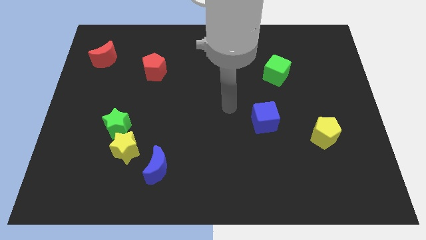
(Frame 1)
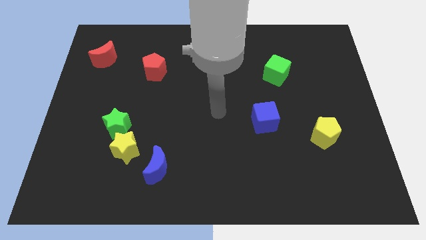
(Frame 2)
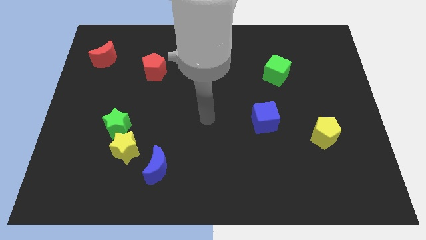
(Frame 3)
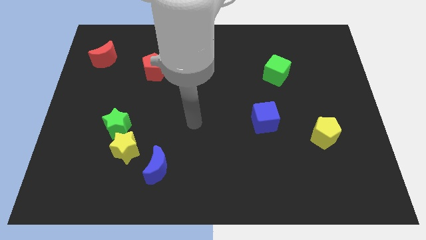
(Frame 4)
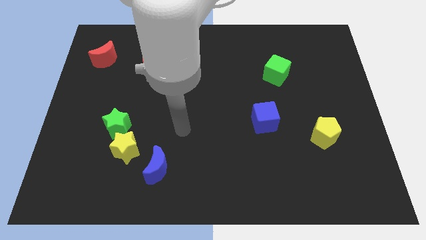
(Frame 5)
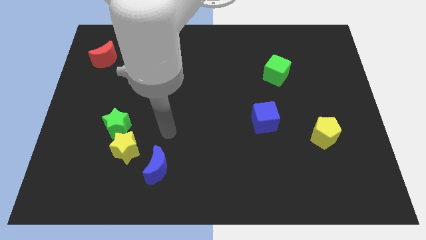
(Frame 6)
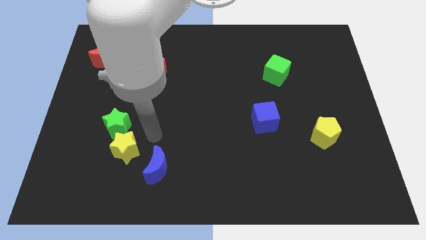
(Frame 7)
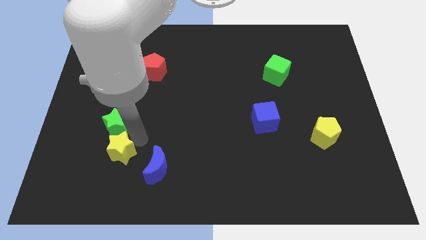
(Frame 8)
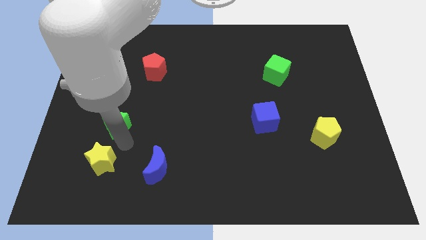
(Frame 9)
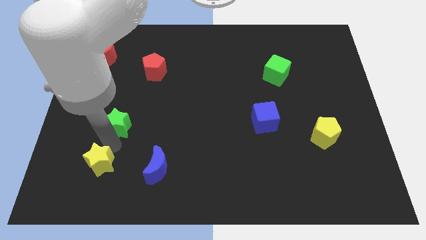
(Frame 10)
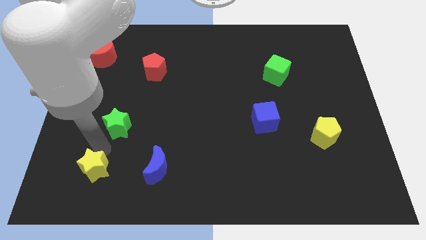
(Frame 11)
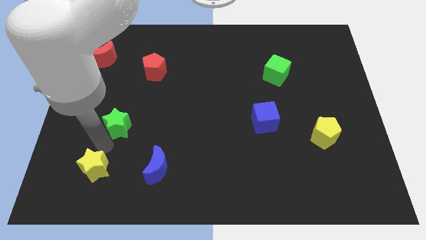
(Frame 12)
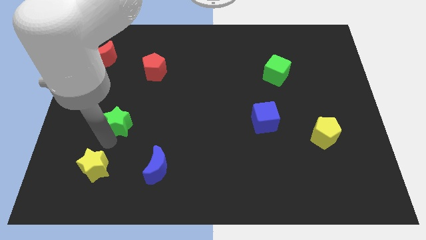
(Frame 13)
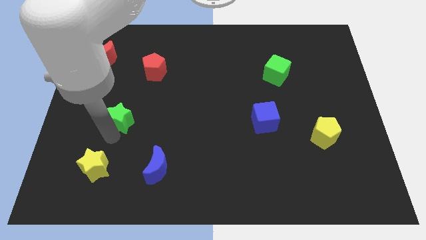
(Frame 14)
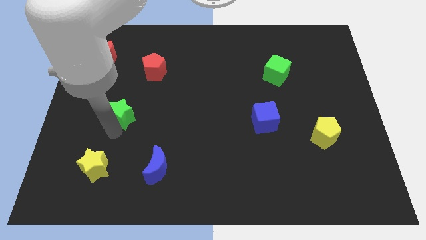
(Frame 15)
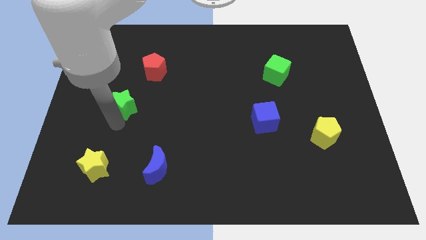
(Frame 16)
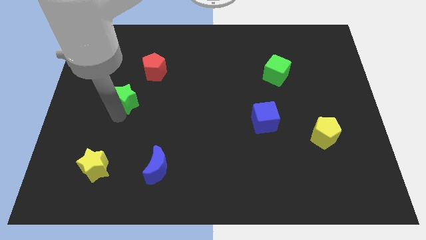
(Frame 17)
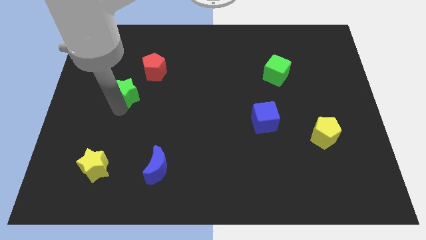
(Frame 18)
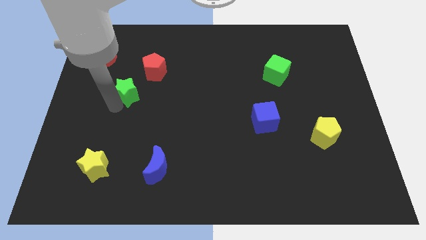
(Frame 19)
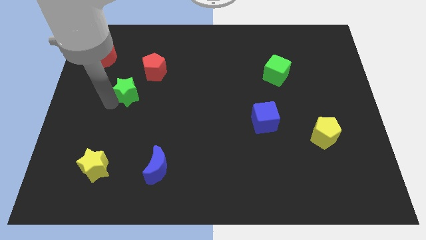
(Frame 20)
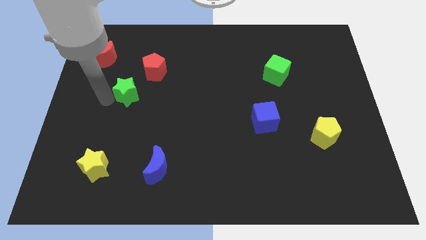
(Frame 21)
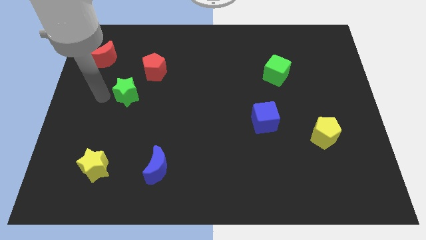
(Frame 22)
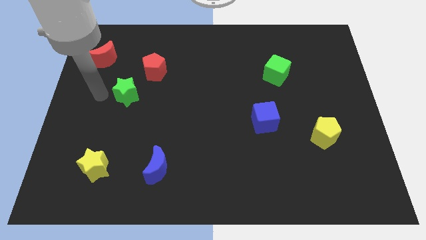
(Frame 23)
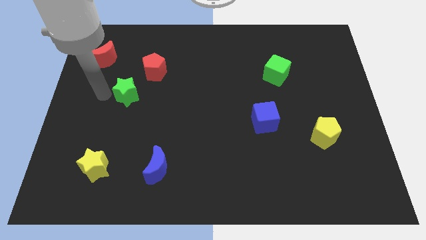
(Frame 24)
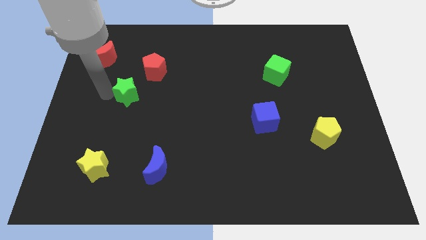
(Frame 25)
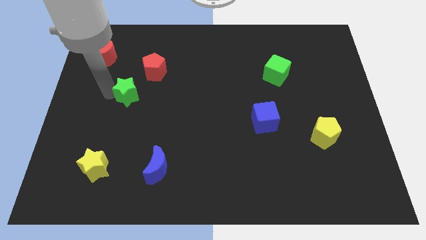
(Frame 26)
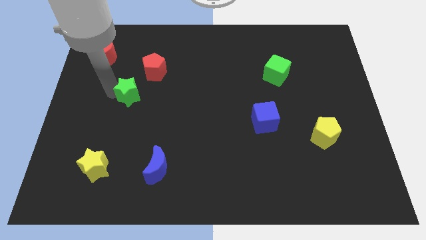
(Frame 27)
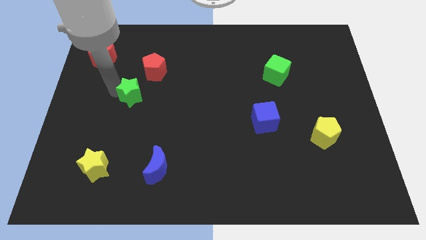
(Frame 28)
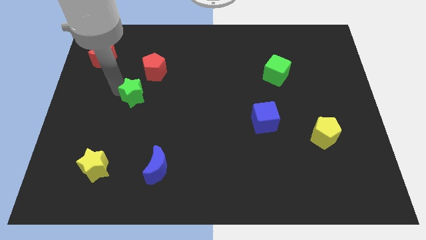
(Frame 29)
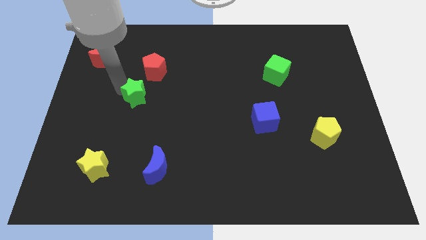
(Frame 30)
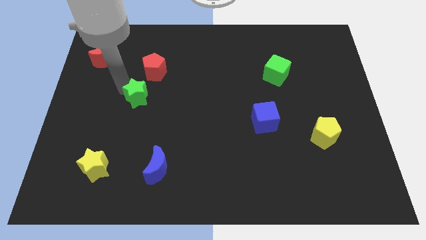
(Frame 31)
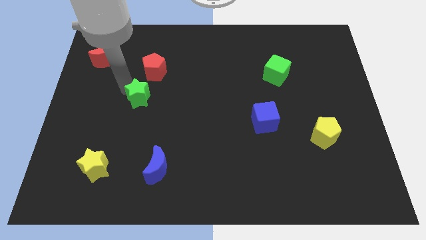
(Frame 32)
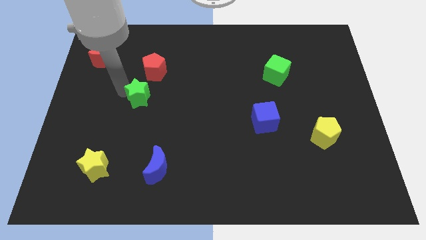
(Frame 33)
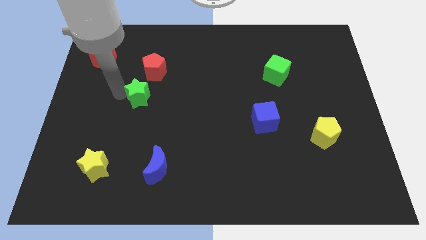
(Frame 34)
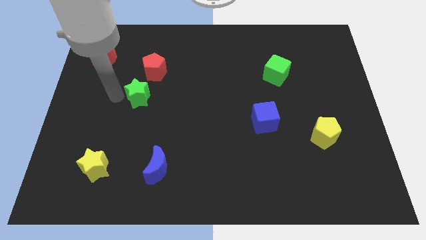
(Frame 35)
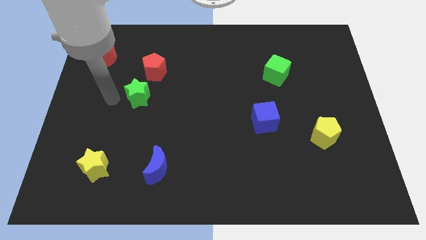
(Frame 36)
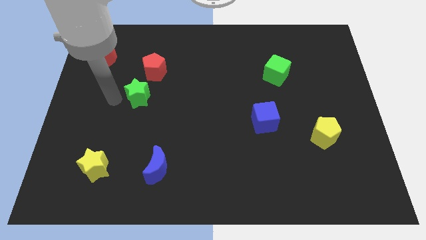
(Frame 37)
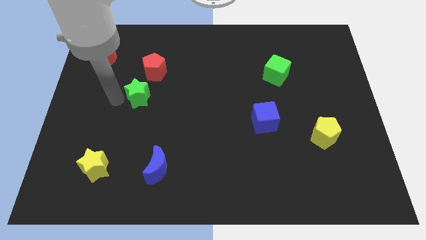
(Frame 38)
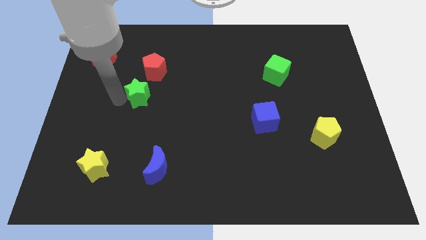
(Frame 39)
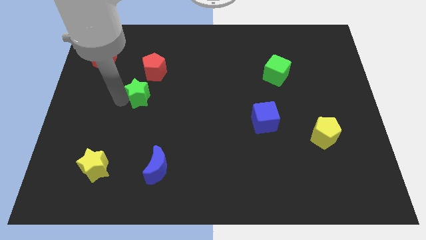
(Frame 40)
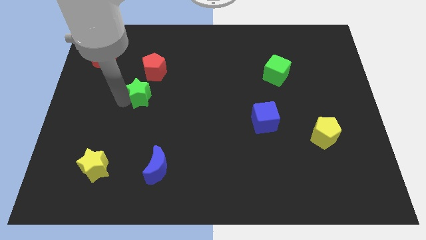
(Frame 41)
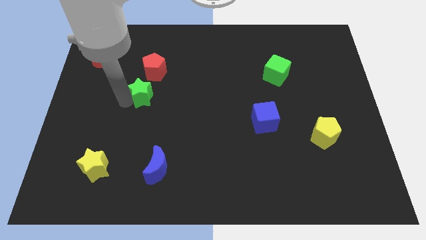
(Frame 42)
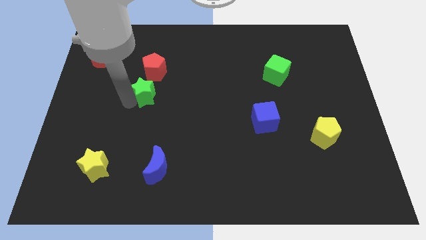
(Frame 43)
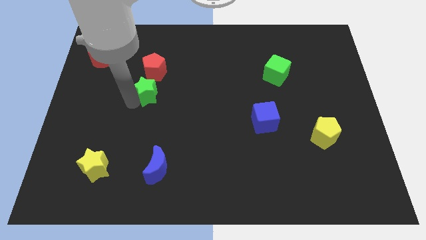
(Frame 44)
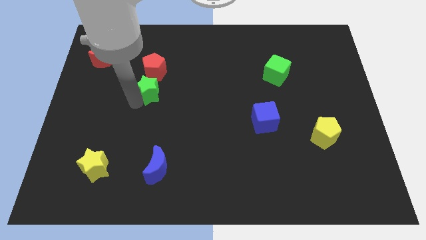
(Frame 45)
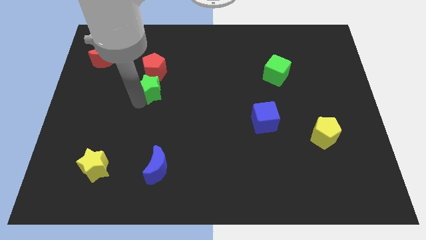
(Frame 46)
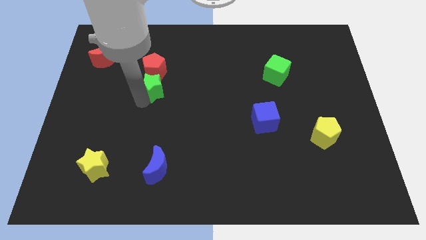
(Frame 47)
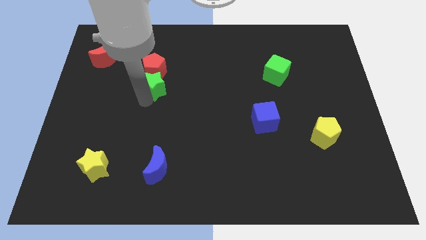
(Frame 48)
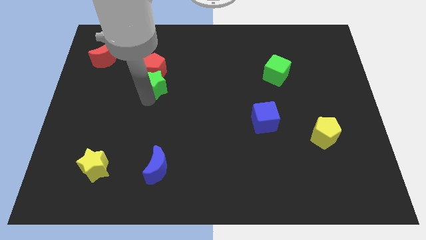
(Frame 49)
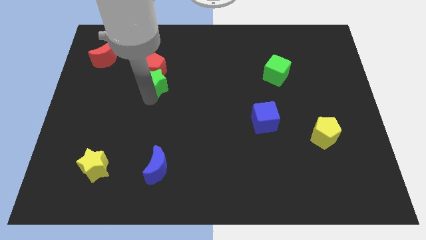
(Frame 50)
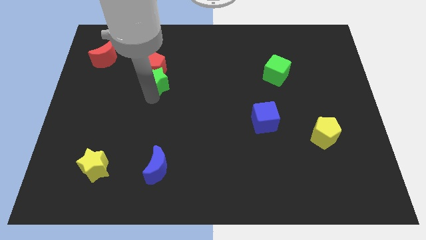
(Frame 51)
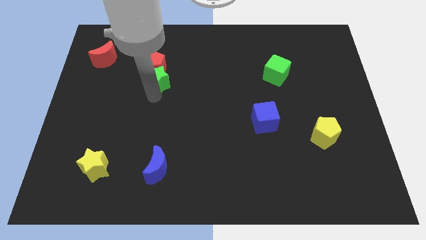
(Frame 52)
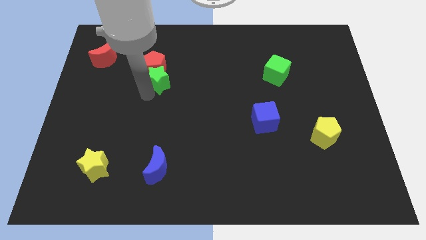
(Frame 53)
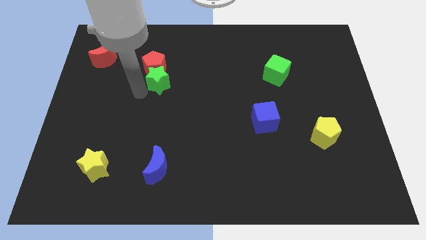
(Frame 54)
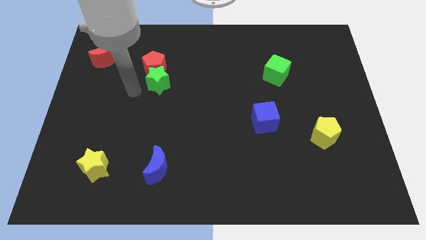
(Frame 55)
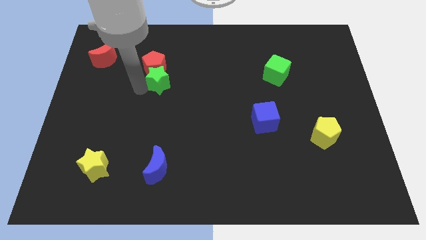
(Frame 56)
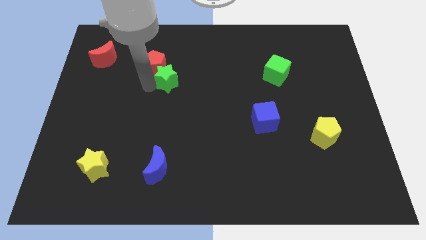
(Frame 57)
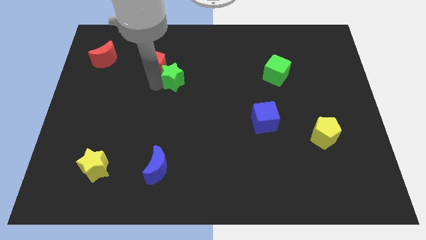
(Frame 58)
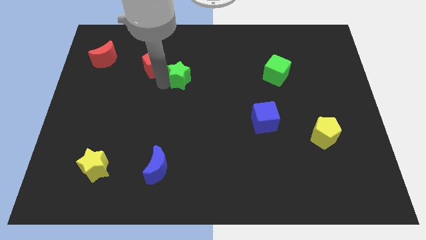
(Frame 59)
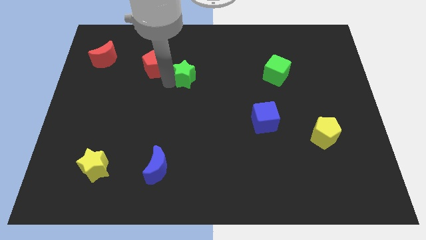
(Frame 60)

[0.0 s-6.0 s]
move the green star up and right diagonally

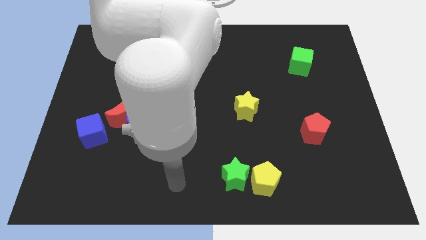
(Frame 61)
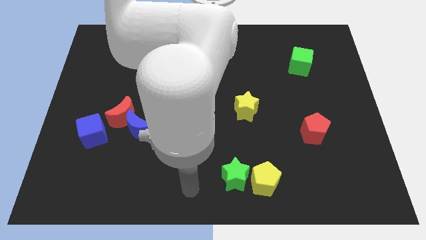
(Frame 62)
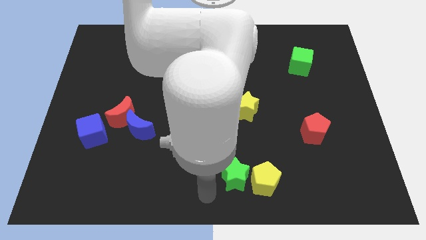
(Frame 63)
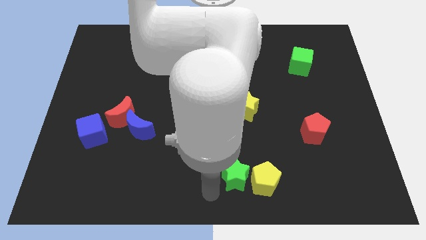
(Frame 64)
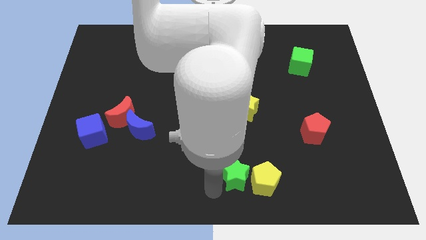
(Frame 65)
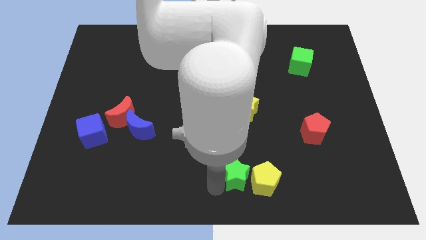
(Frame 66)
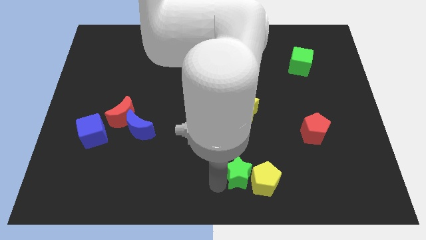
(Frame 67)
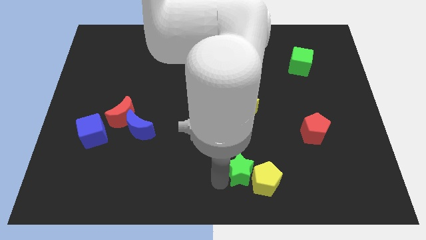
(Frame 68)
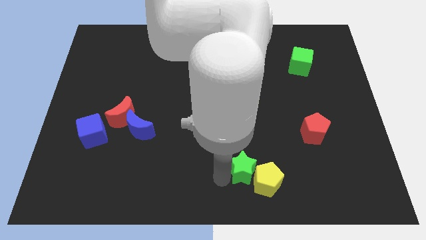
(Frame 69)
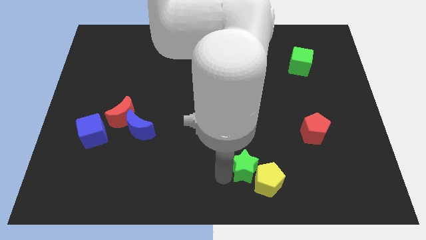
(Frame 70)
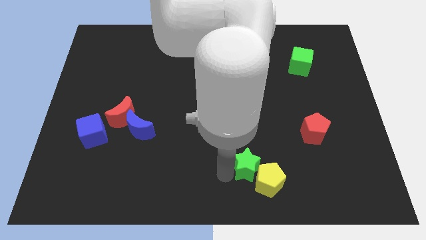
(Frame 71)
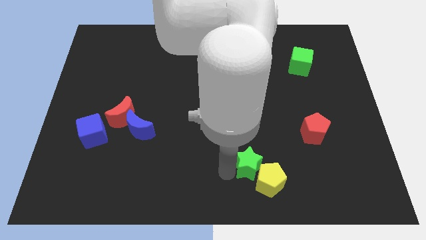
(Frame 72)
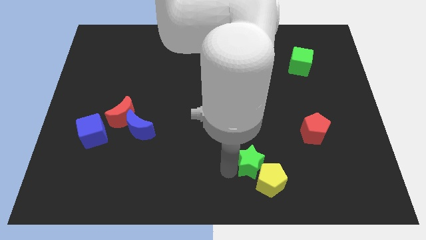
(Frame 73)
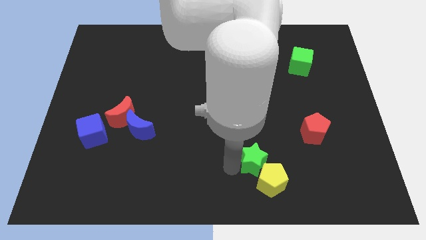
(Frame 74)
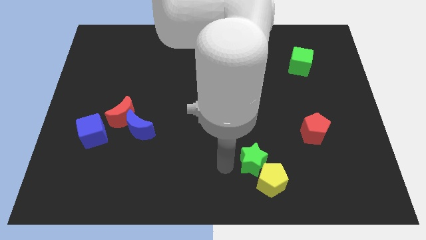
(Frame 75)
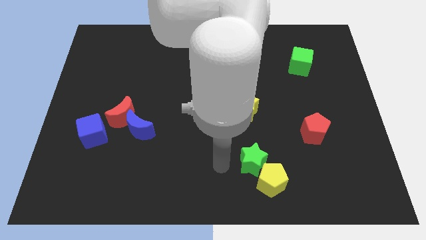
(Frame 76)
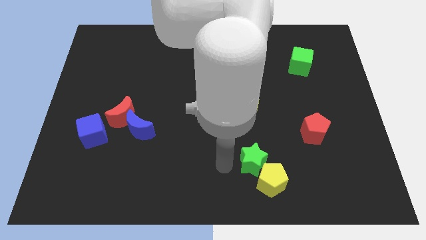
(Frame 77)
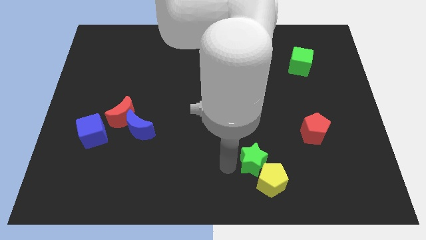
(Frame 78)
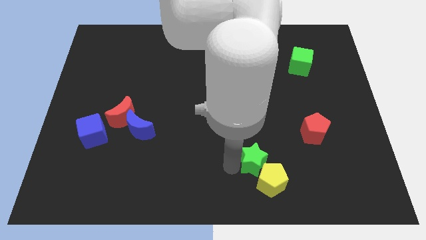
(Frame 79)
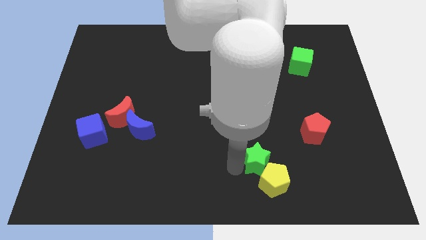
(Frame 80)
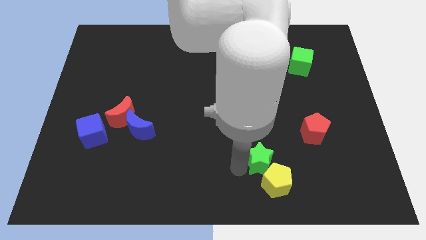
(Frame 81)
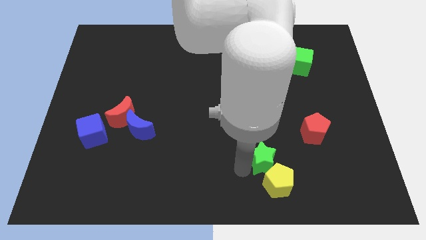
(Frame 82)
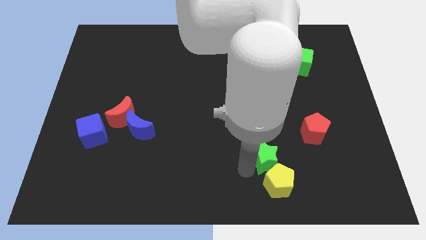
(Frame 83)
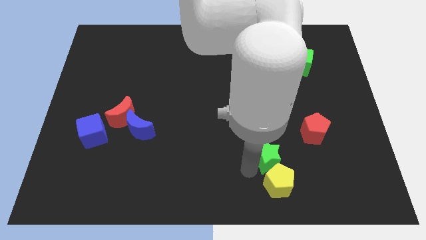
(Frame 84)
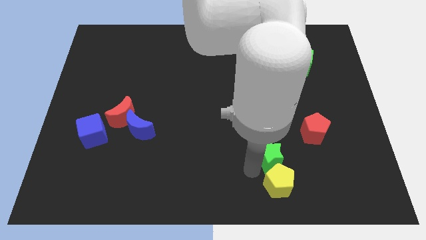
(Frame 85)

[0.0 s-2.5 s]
slightly slide the green star right
